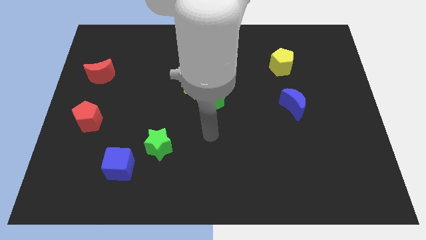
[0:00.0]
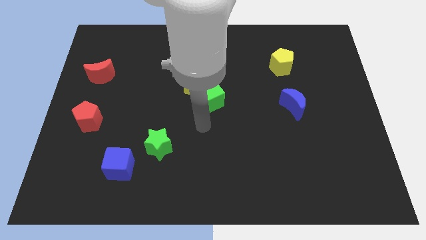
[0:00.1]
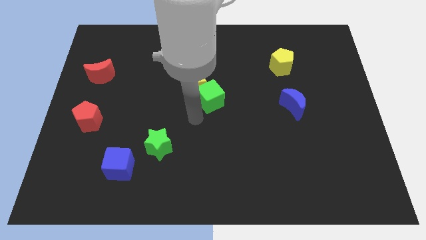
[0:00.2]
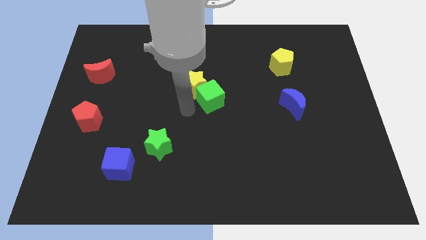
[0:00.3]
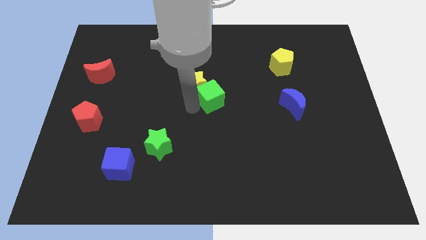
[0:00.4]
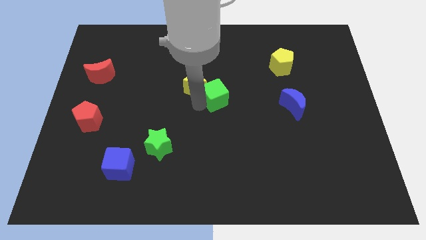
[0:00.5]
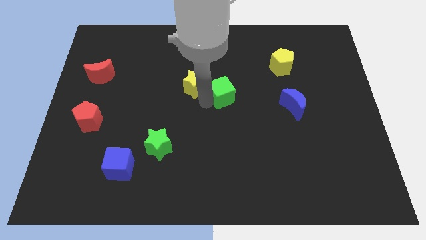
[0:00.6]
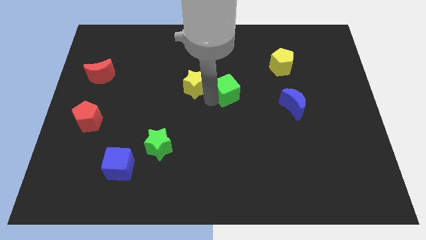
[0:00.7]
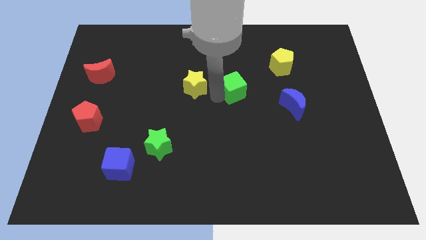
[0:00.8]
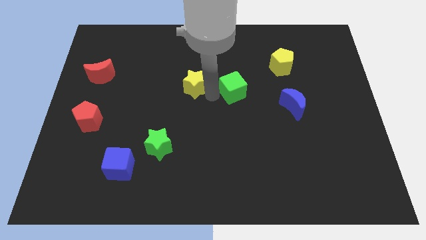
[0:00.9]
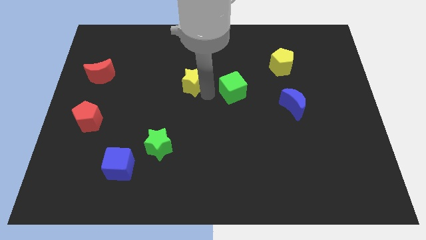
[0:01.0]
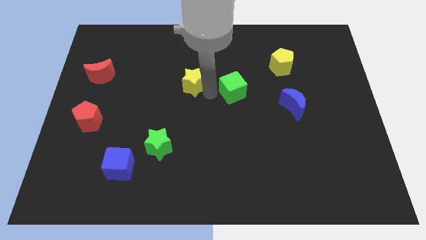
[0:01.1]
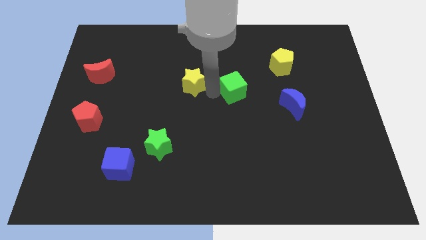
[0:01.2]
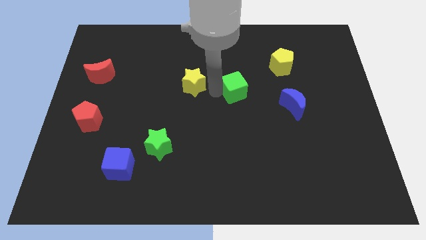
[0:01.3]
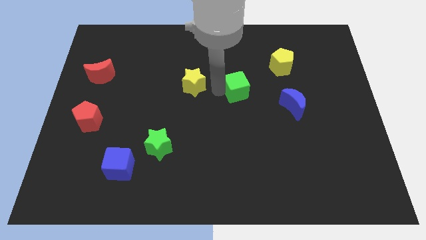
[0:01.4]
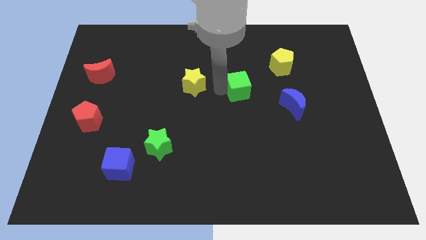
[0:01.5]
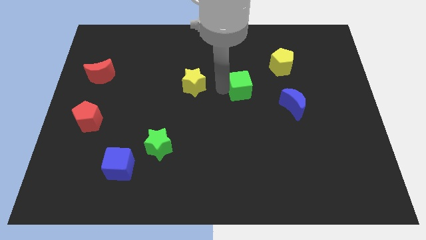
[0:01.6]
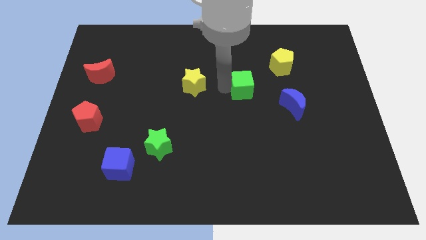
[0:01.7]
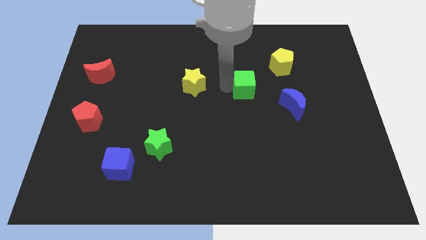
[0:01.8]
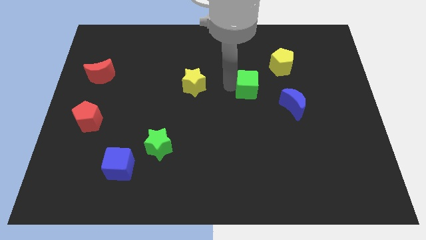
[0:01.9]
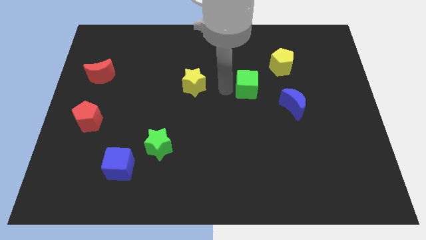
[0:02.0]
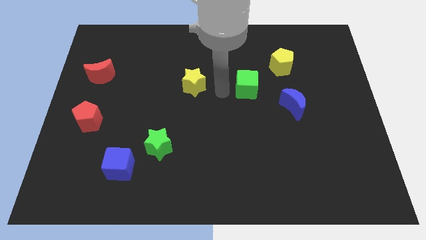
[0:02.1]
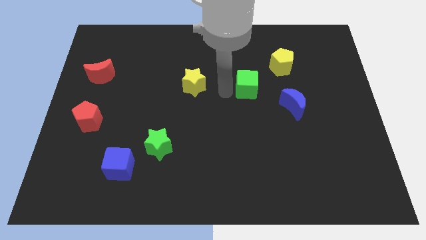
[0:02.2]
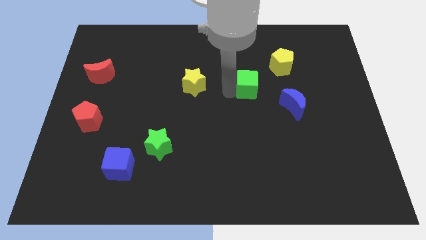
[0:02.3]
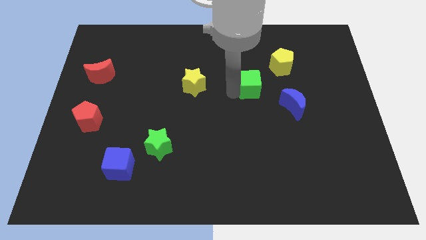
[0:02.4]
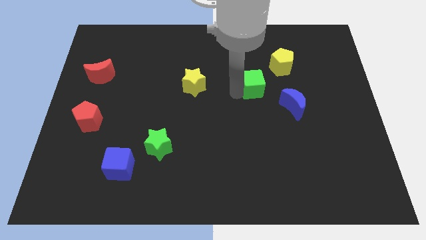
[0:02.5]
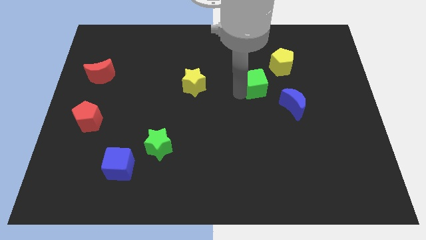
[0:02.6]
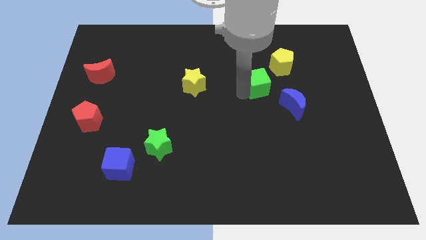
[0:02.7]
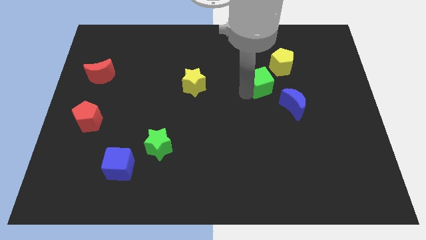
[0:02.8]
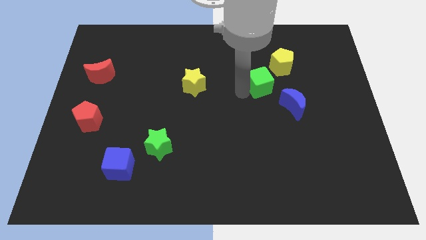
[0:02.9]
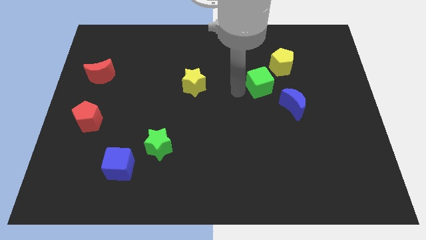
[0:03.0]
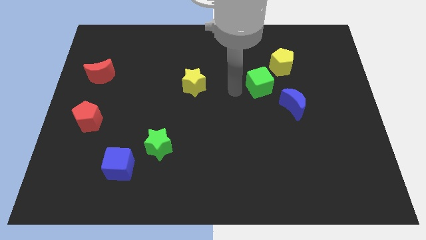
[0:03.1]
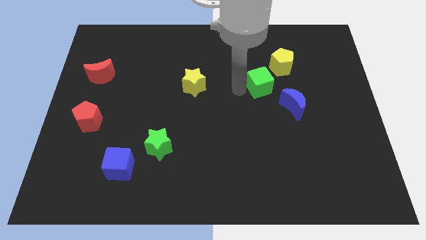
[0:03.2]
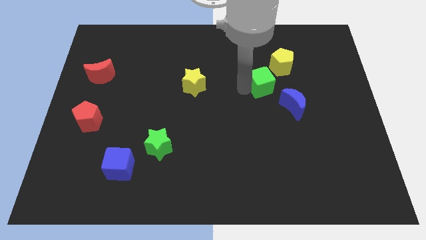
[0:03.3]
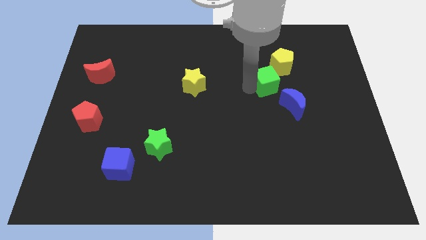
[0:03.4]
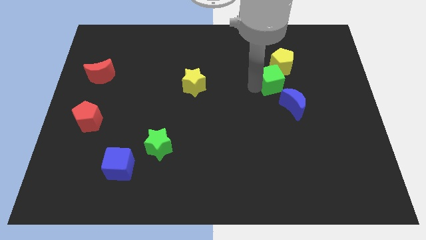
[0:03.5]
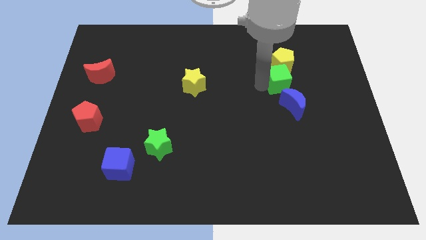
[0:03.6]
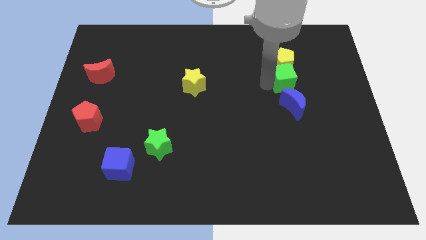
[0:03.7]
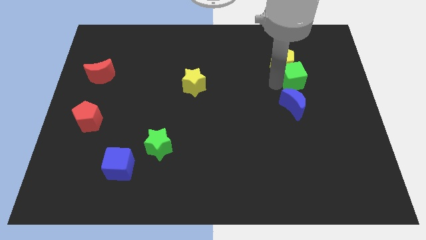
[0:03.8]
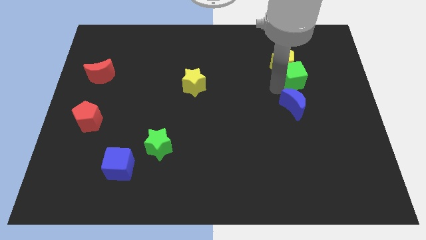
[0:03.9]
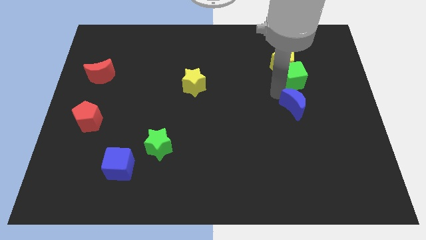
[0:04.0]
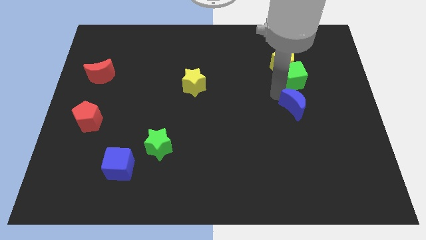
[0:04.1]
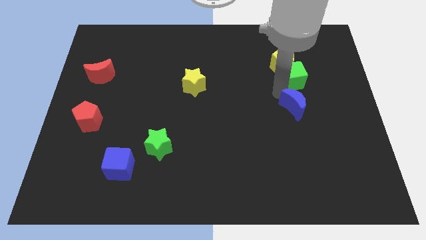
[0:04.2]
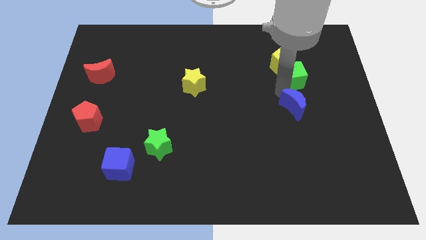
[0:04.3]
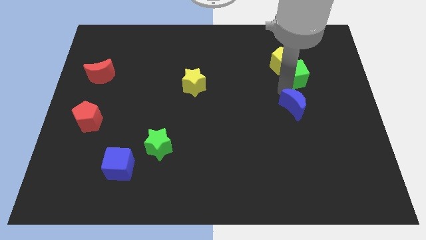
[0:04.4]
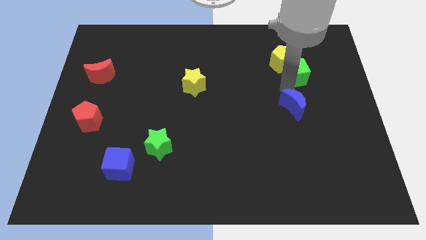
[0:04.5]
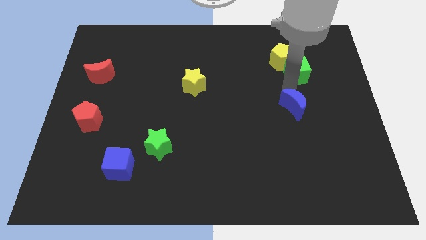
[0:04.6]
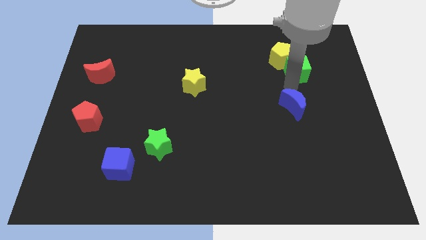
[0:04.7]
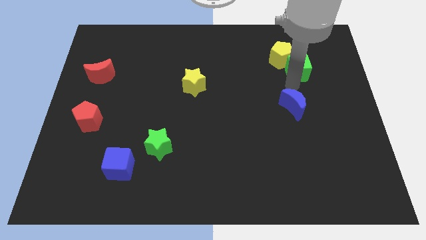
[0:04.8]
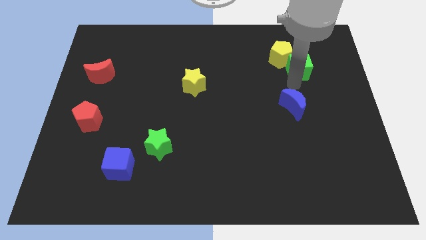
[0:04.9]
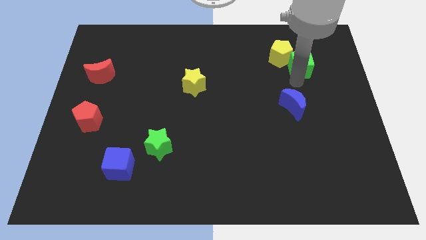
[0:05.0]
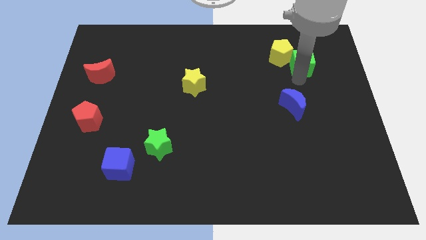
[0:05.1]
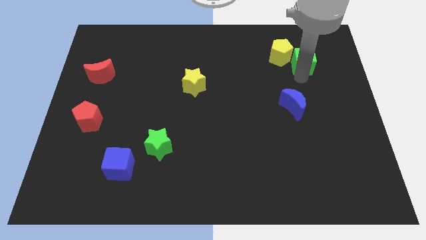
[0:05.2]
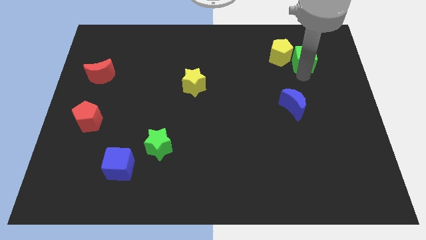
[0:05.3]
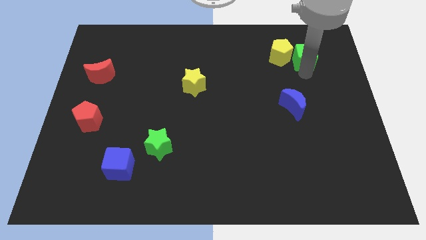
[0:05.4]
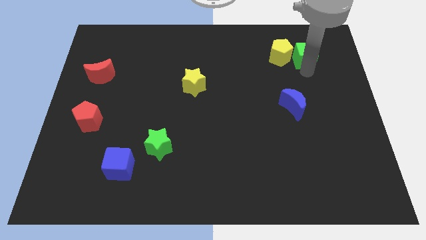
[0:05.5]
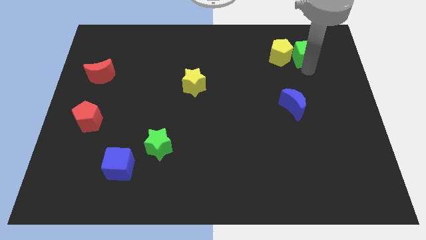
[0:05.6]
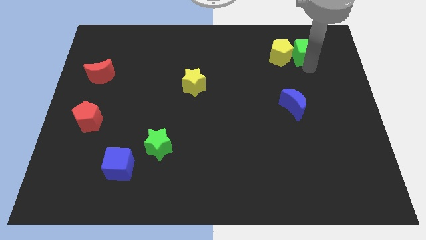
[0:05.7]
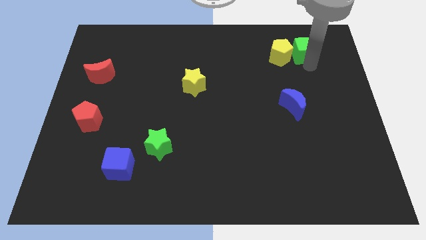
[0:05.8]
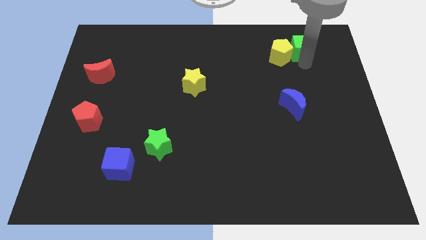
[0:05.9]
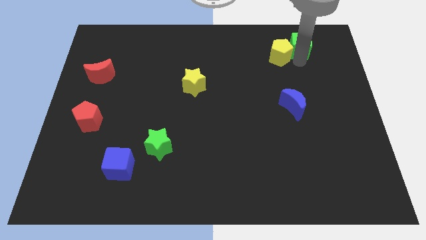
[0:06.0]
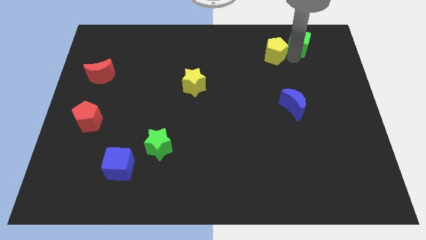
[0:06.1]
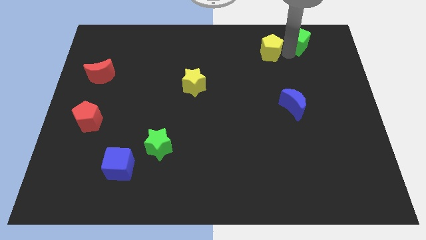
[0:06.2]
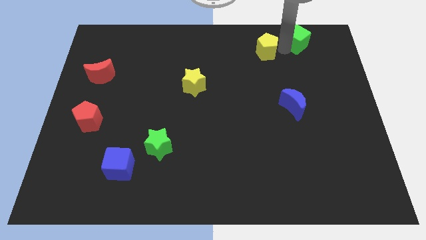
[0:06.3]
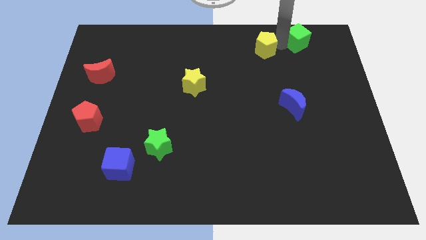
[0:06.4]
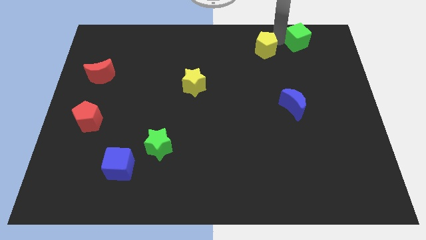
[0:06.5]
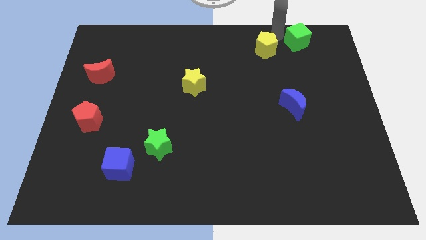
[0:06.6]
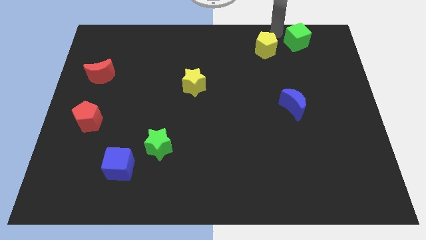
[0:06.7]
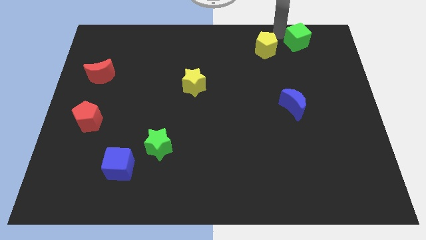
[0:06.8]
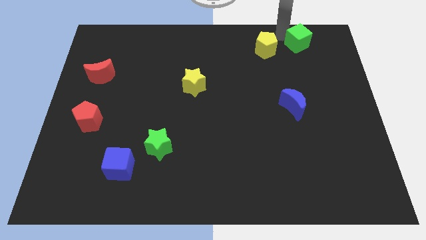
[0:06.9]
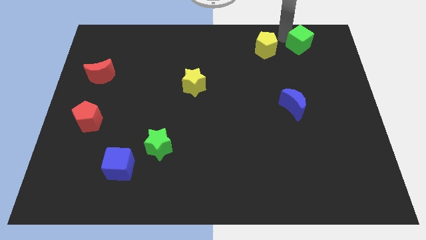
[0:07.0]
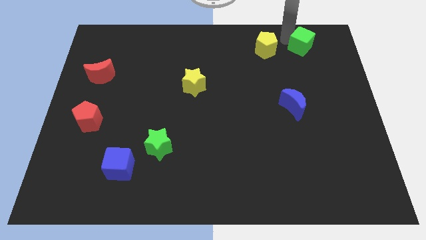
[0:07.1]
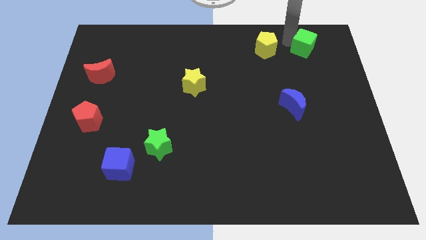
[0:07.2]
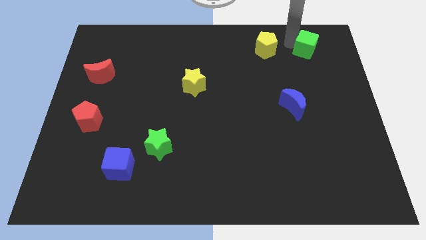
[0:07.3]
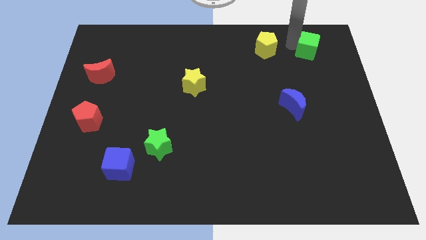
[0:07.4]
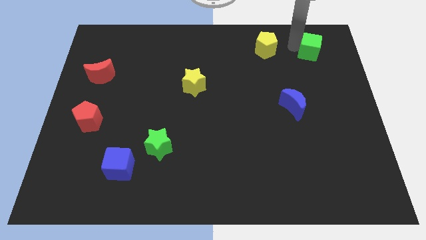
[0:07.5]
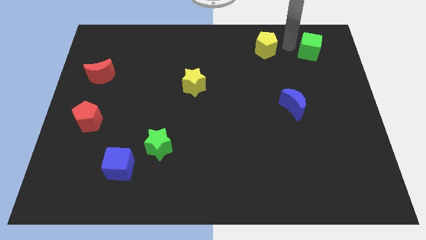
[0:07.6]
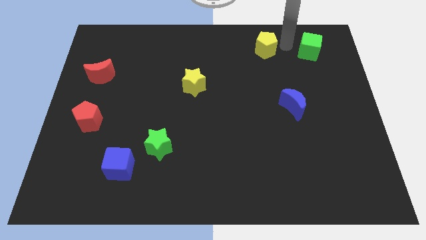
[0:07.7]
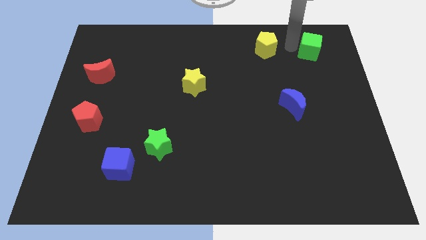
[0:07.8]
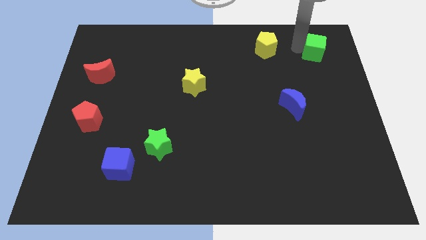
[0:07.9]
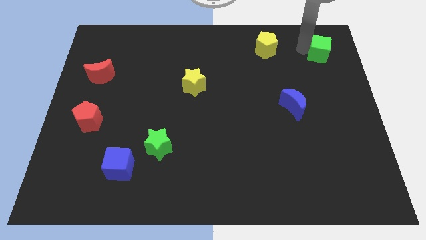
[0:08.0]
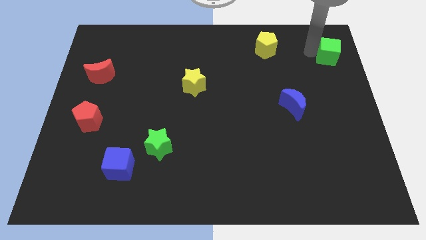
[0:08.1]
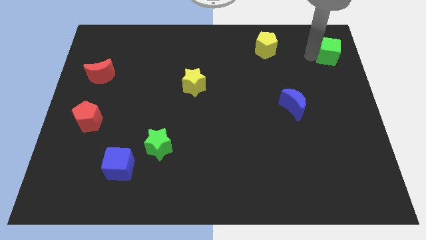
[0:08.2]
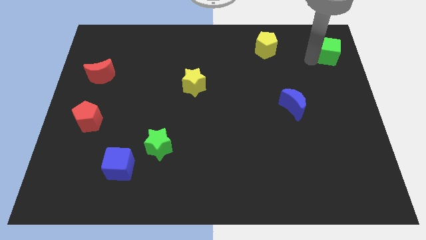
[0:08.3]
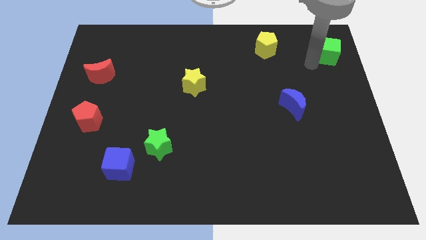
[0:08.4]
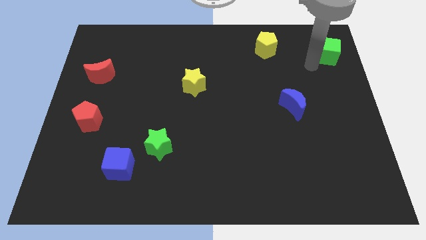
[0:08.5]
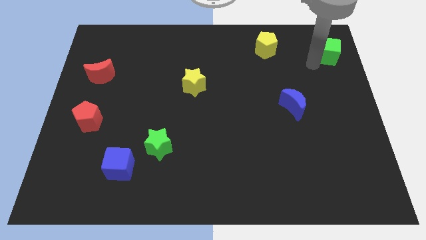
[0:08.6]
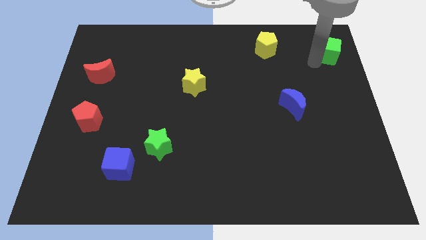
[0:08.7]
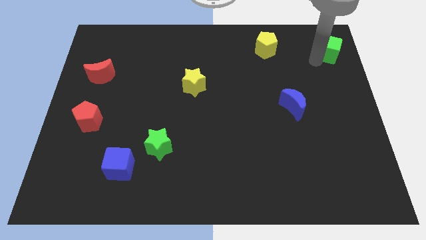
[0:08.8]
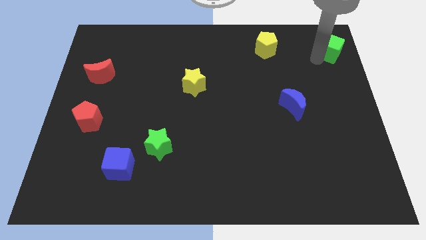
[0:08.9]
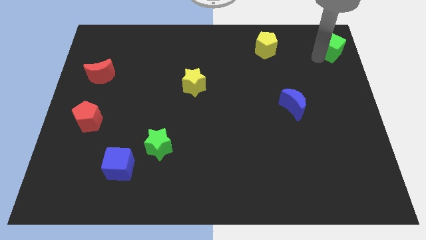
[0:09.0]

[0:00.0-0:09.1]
move the green cube to the top right of the board
